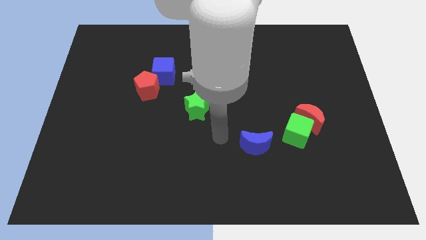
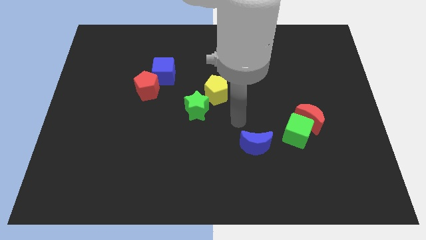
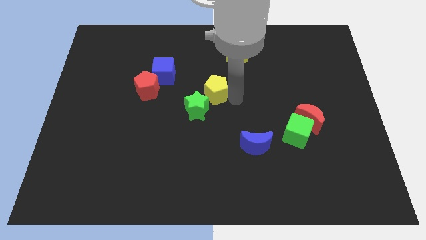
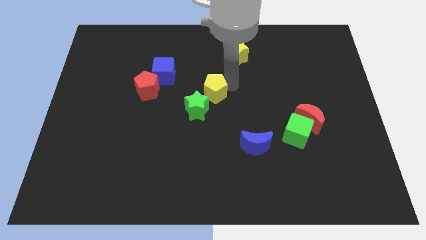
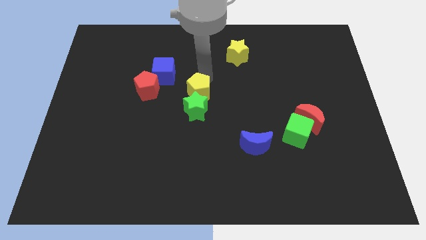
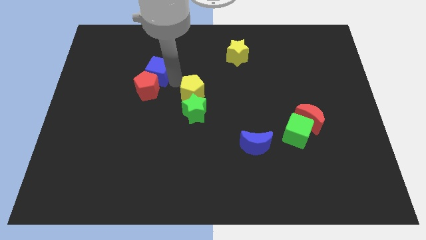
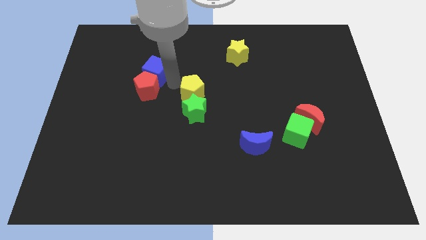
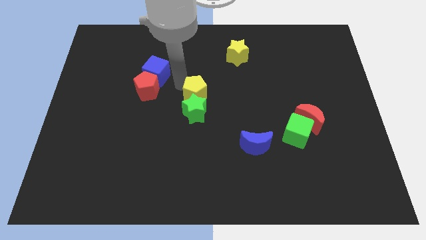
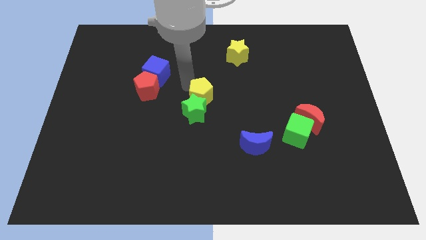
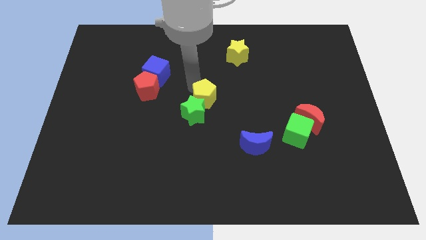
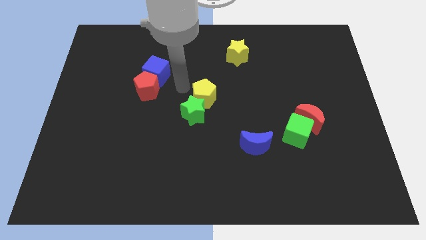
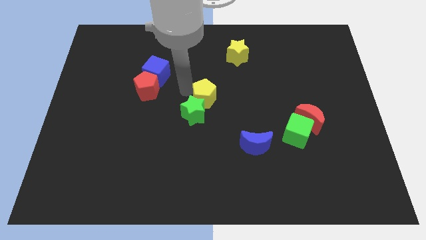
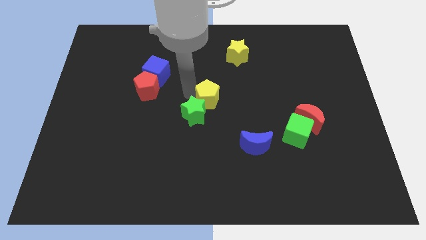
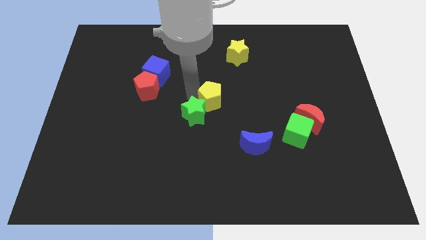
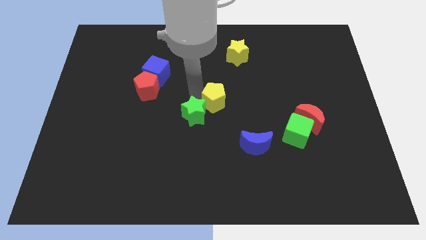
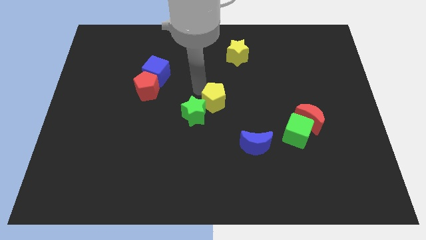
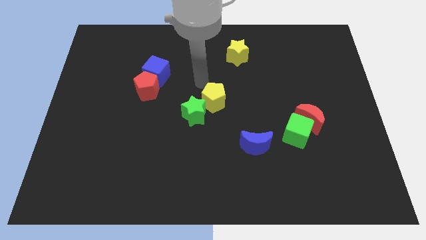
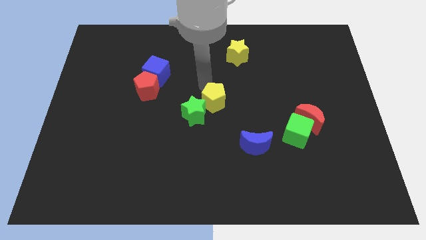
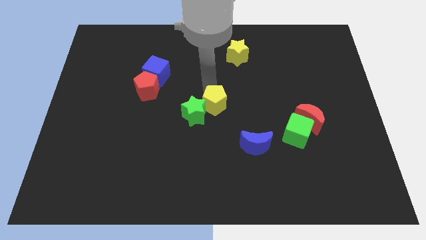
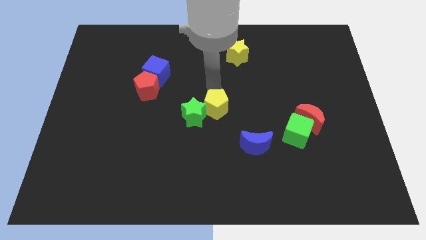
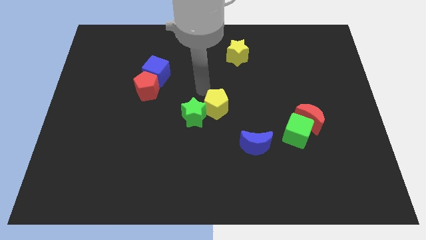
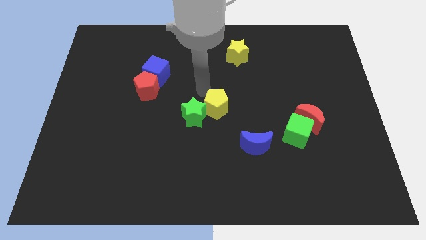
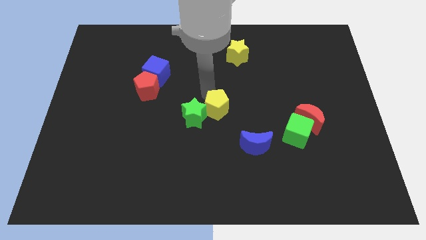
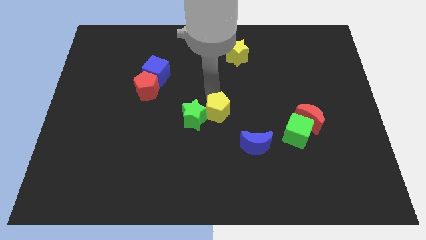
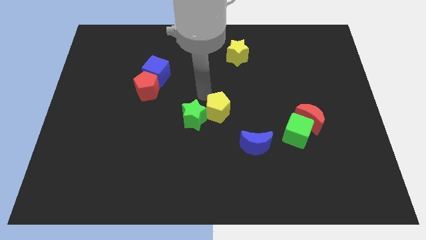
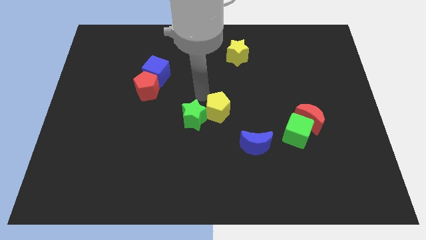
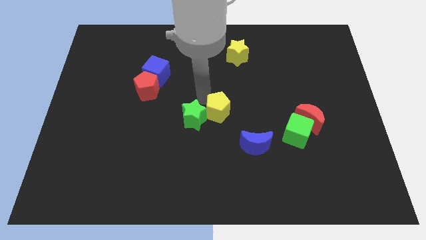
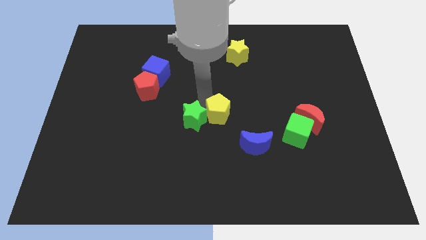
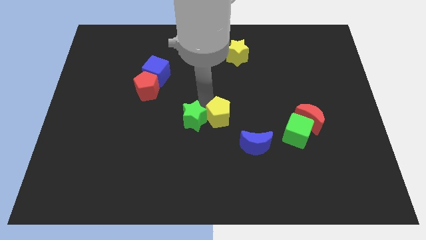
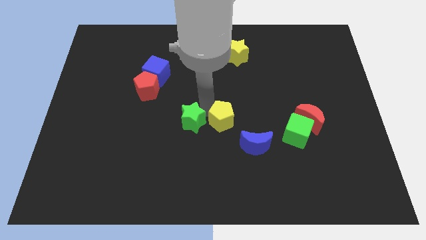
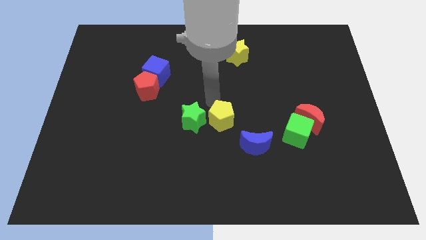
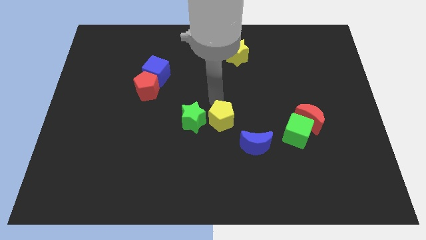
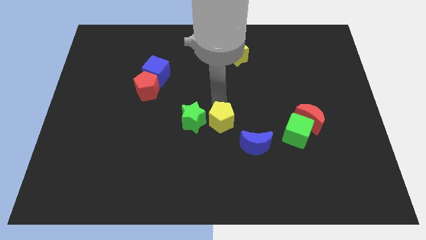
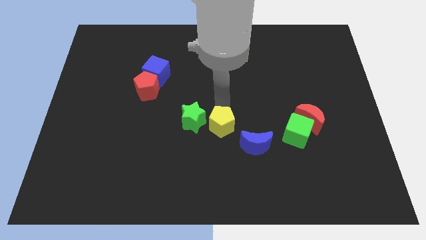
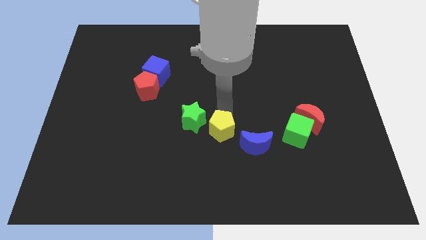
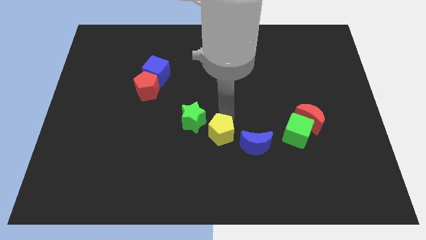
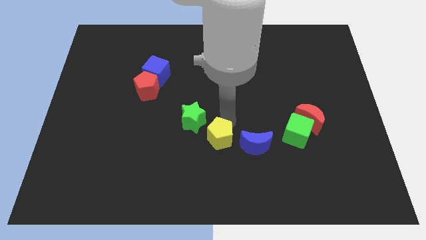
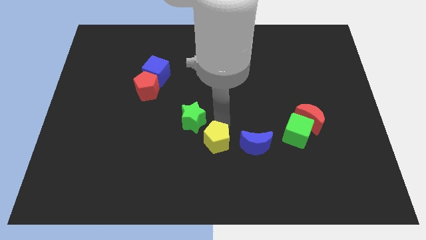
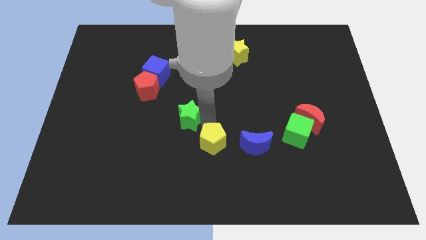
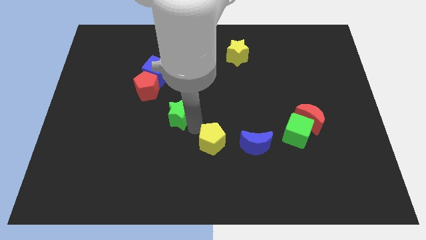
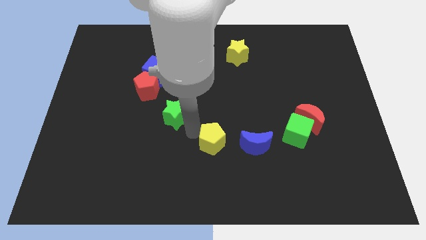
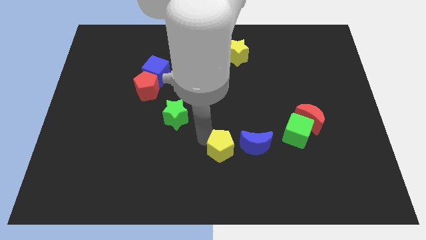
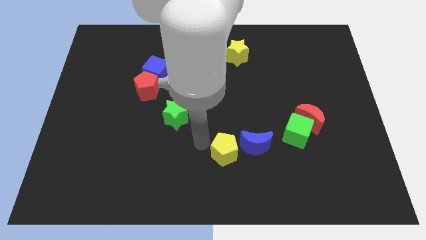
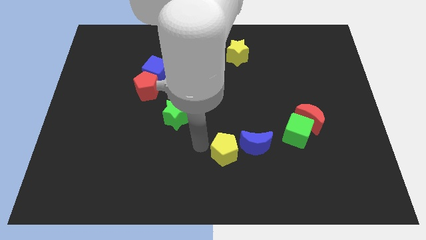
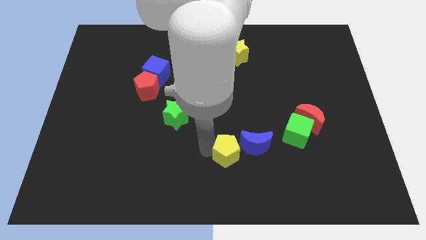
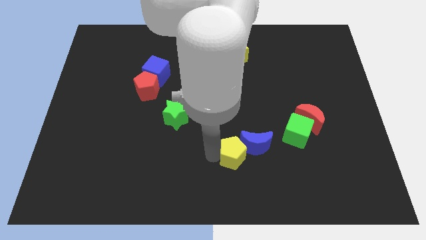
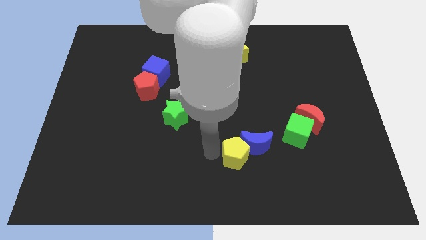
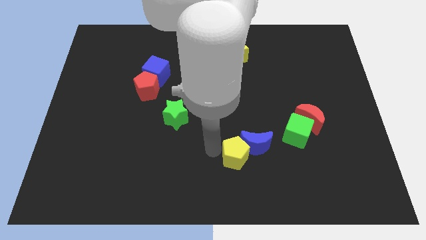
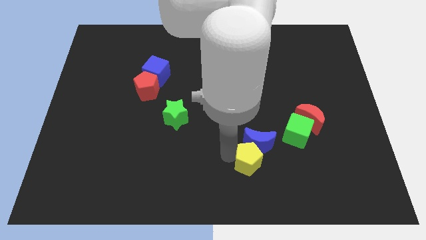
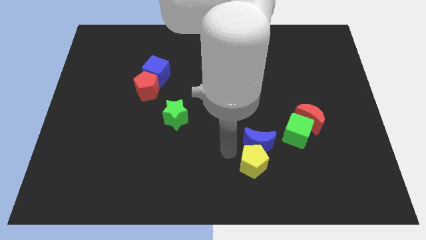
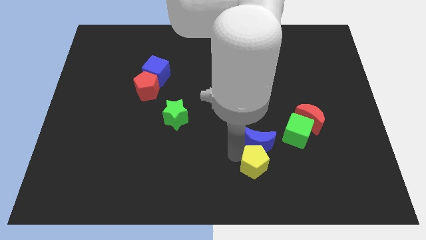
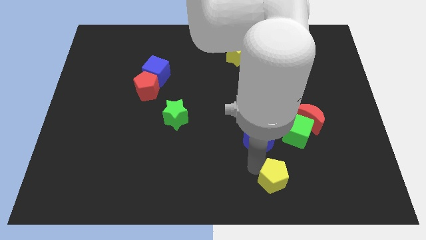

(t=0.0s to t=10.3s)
push the yellow pentagon diagonally downwards and right

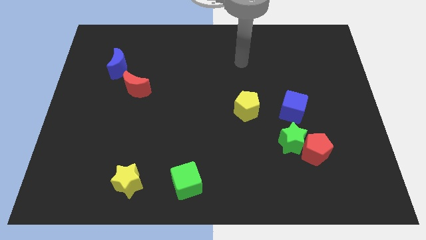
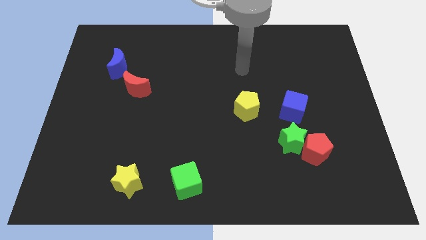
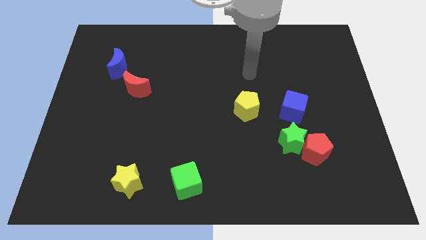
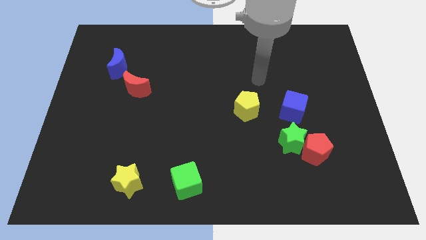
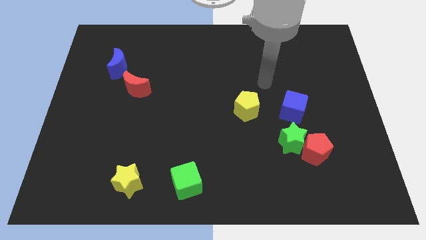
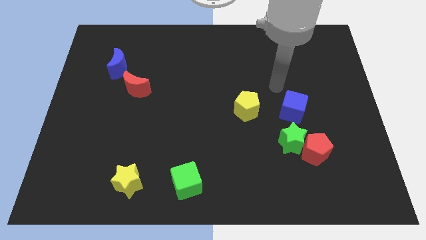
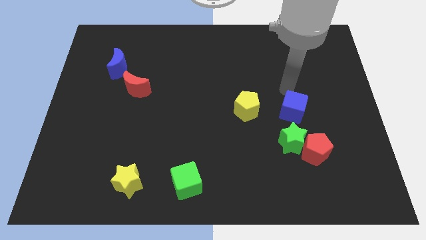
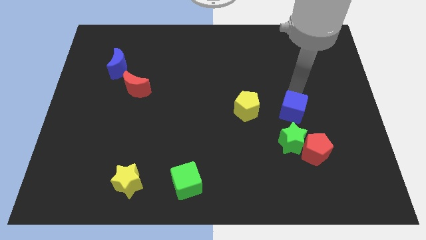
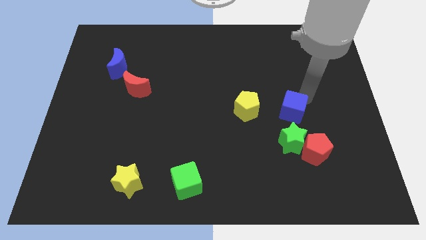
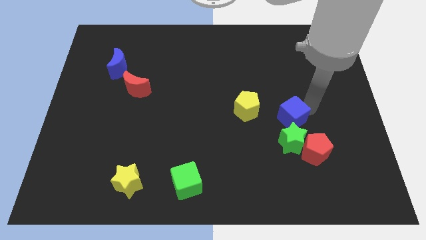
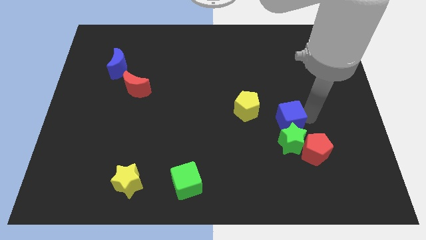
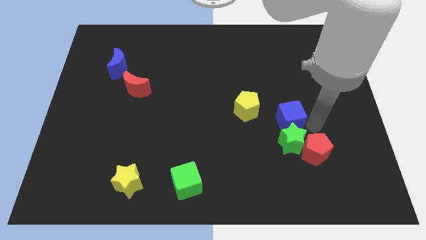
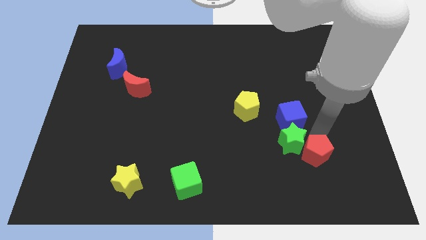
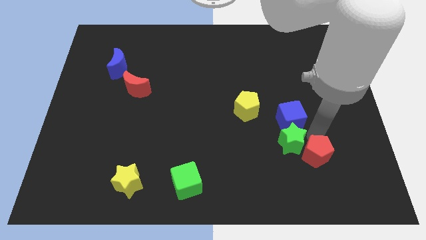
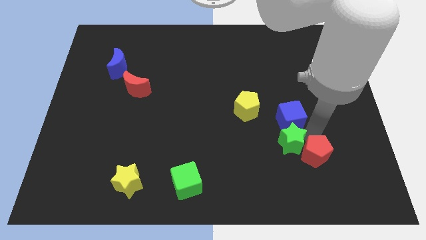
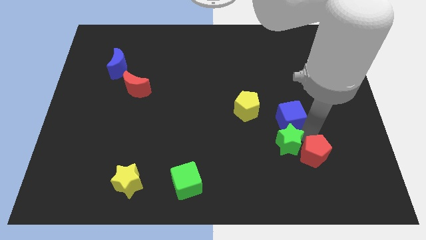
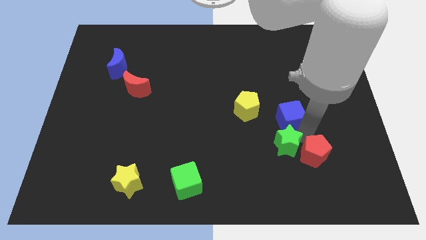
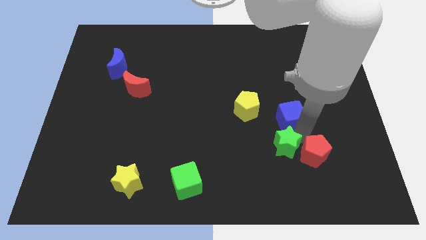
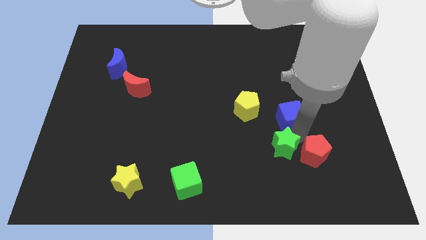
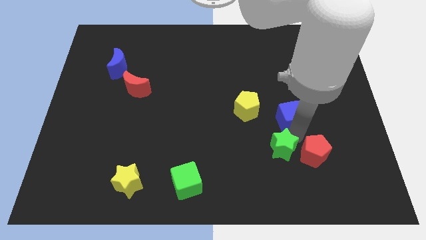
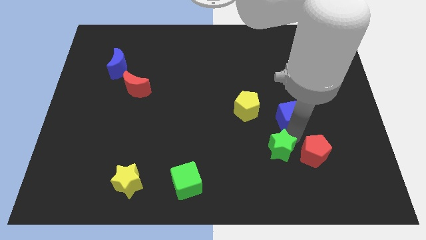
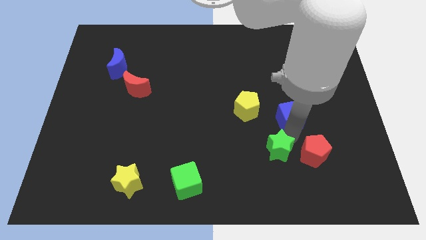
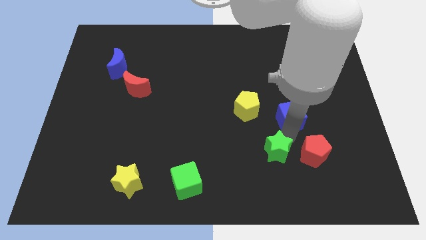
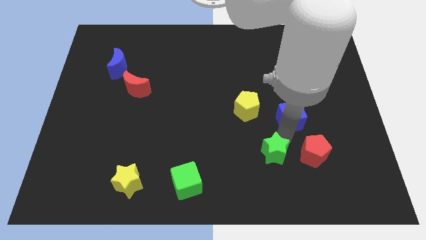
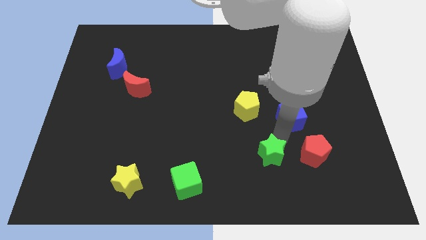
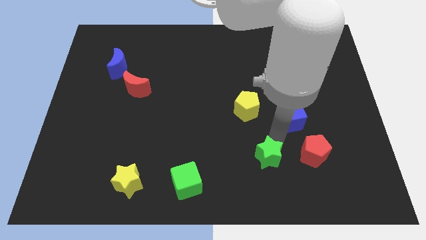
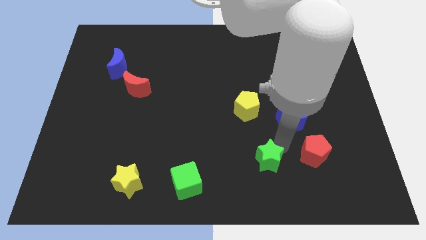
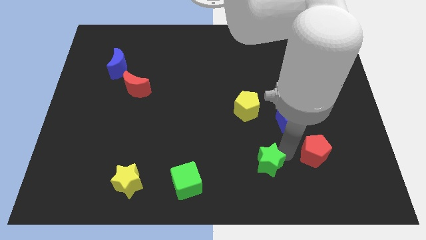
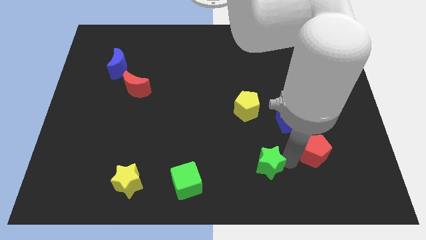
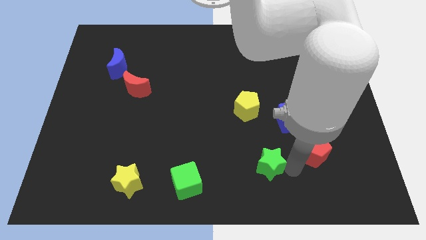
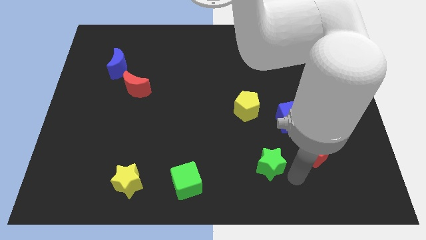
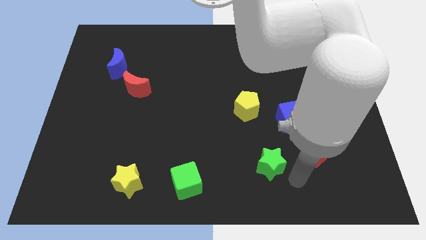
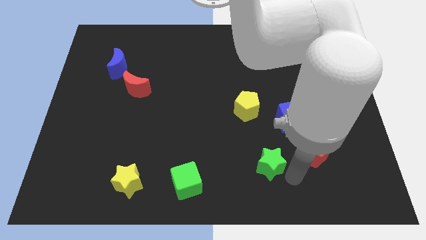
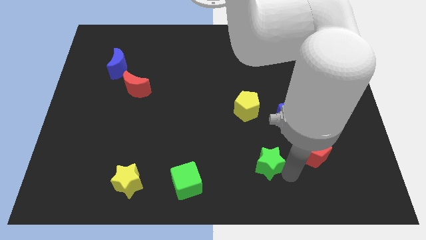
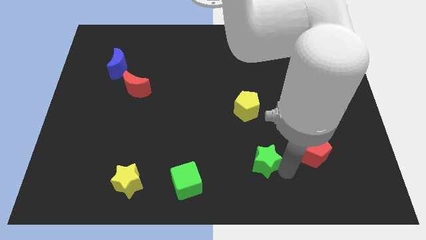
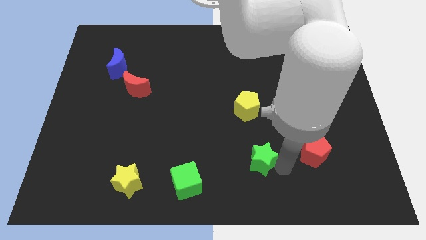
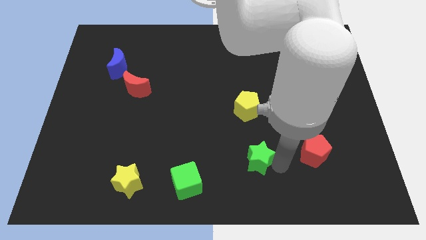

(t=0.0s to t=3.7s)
slightly push the green star to the left
